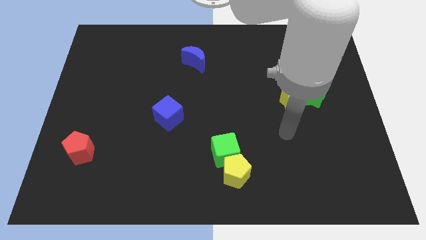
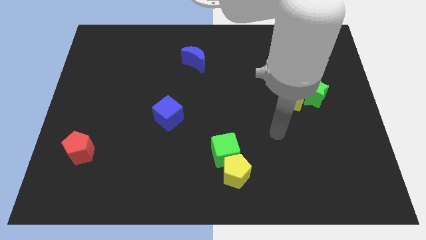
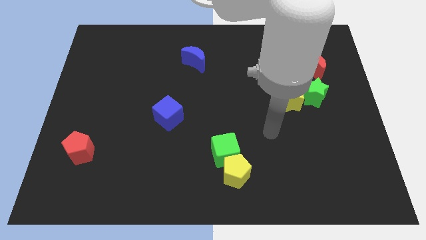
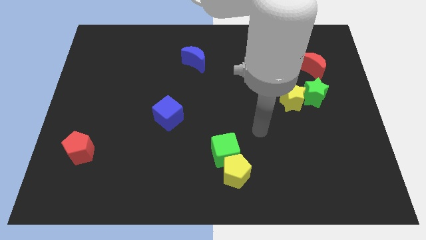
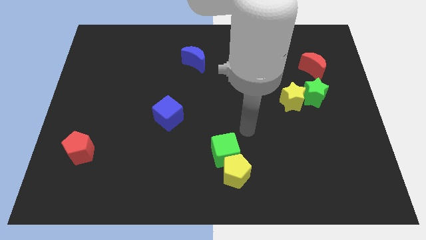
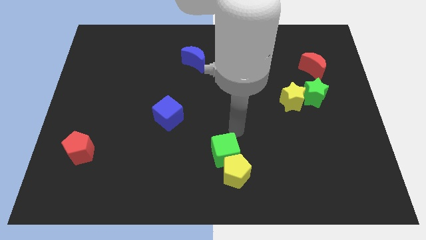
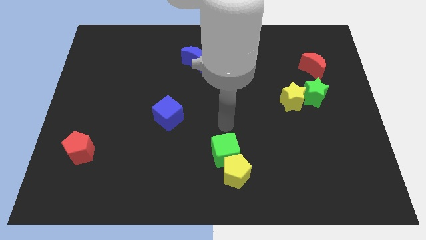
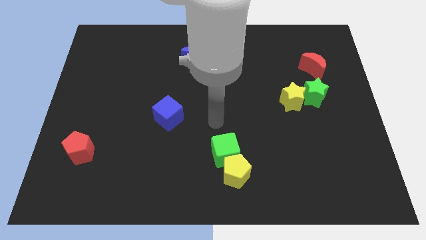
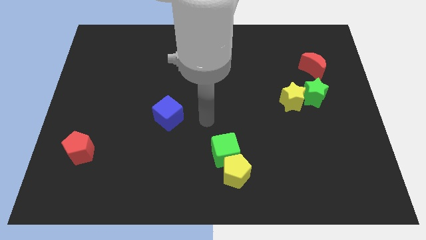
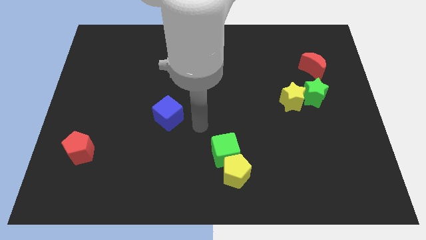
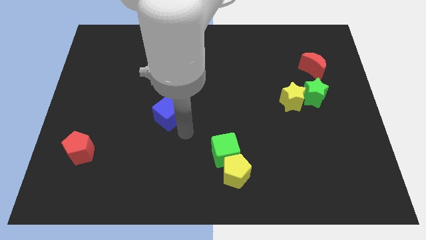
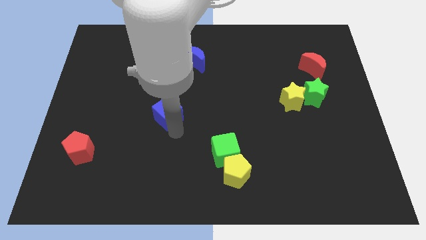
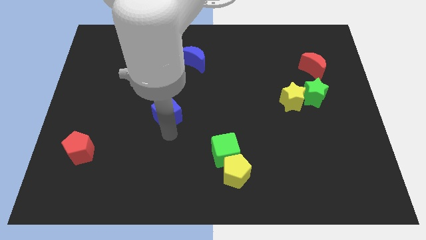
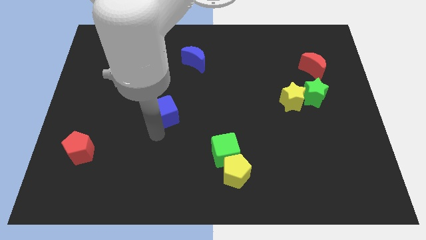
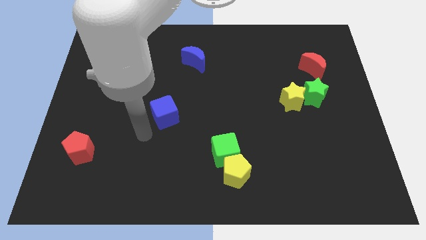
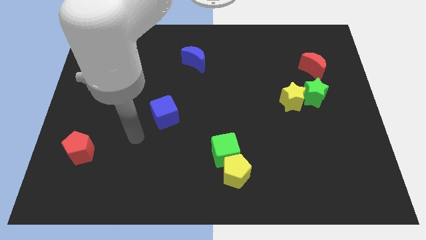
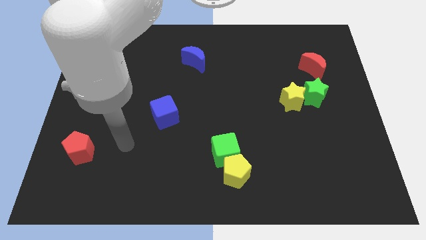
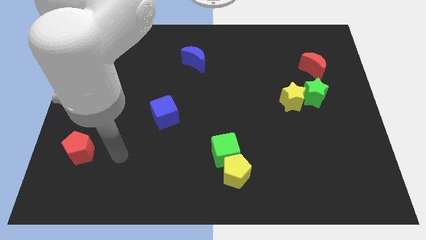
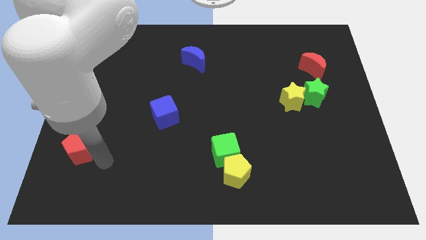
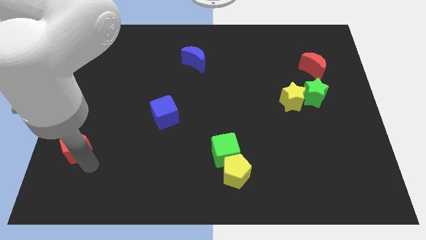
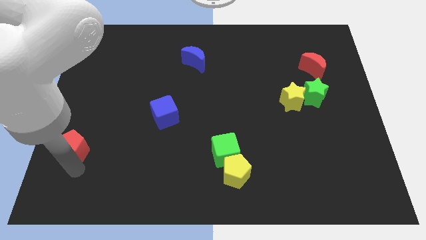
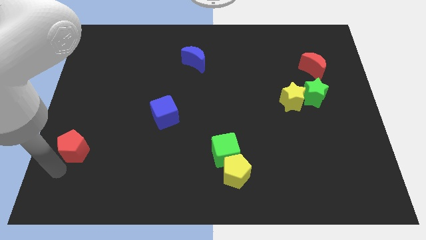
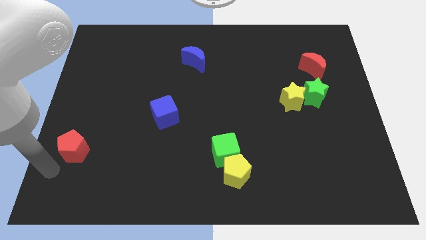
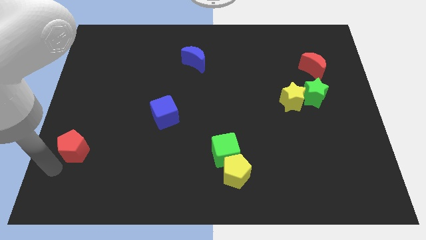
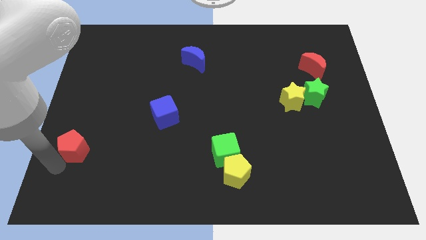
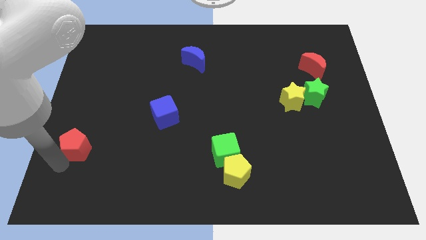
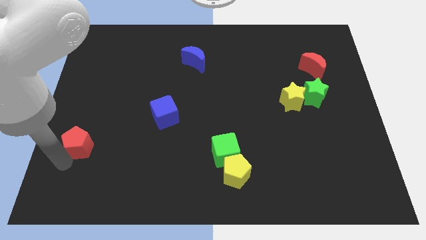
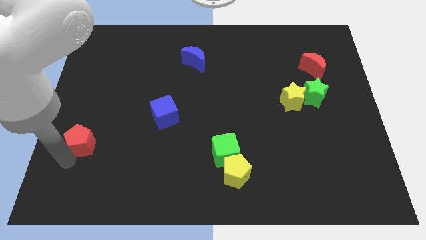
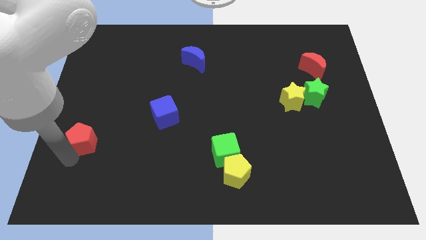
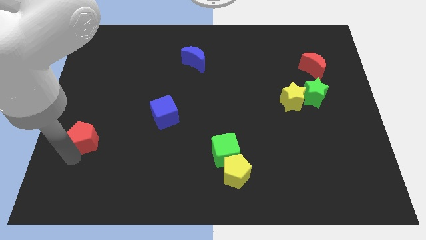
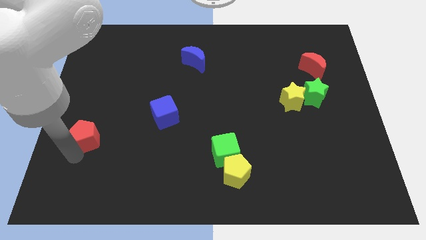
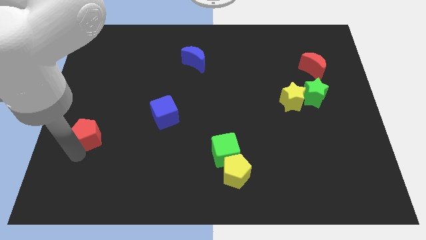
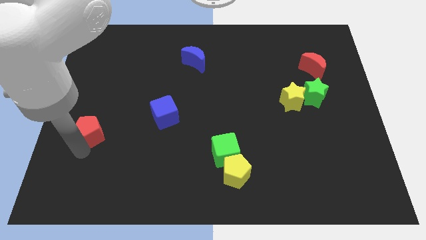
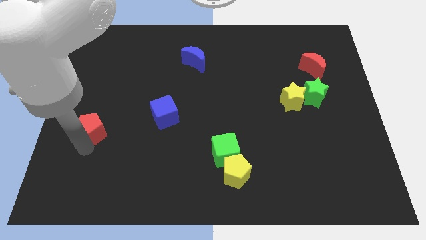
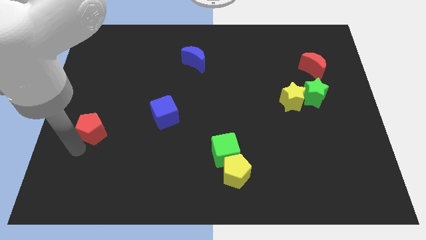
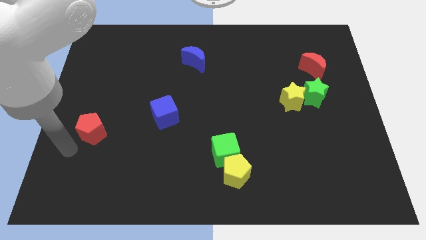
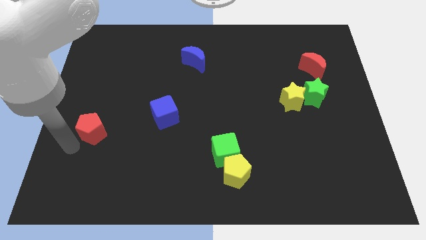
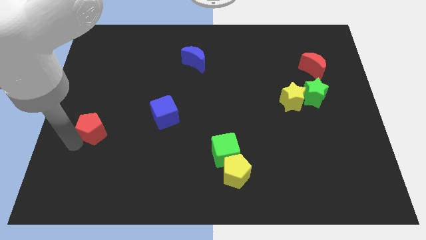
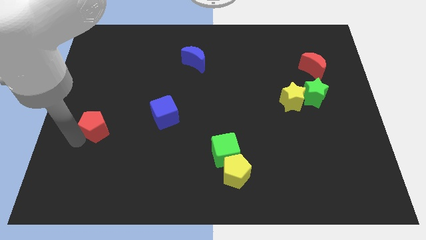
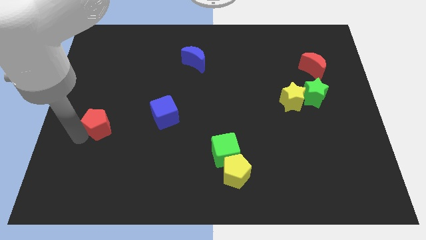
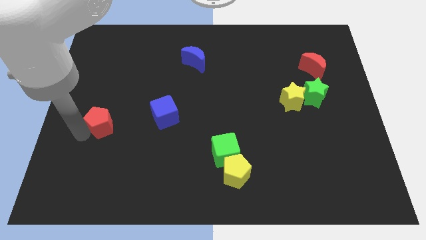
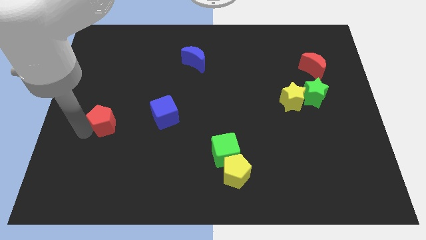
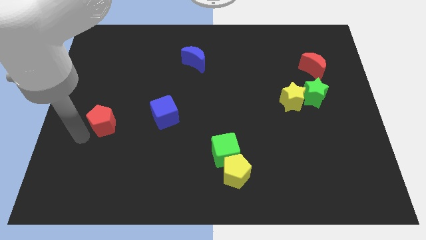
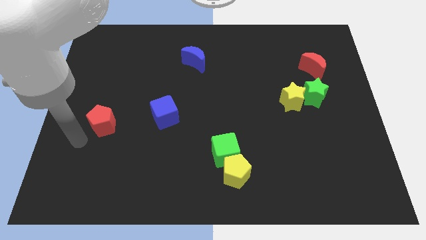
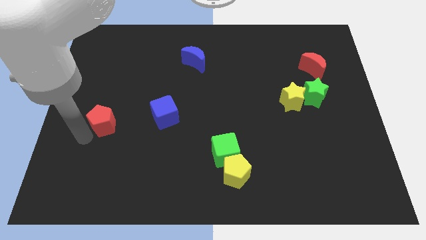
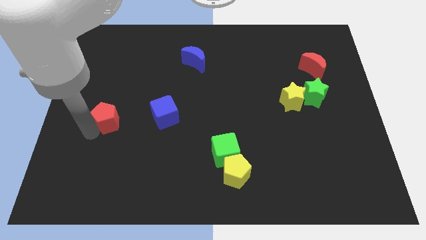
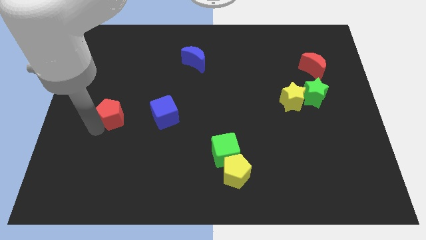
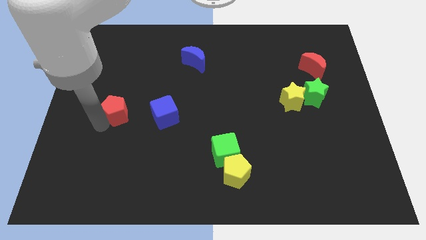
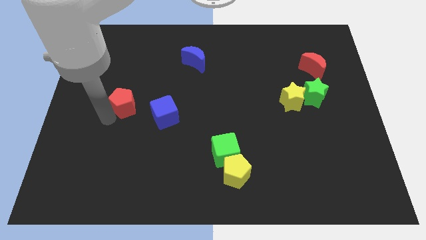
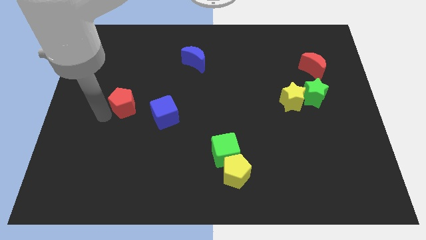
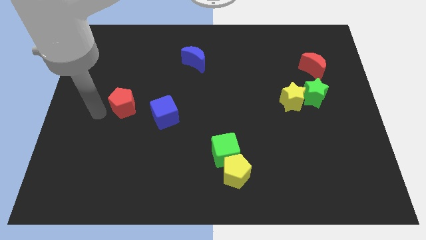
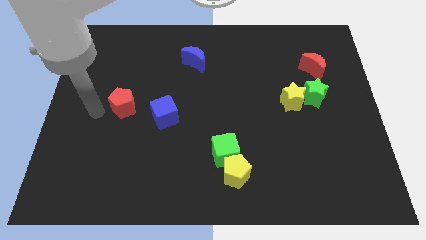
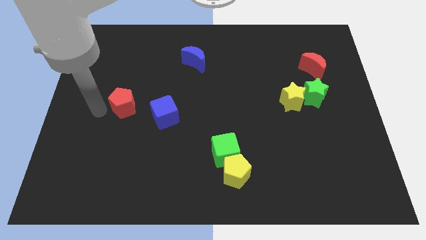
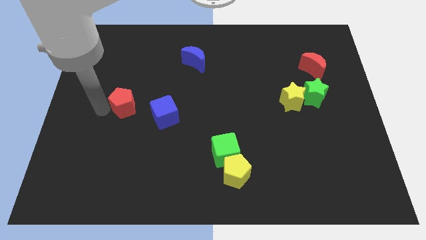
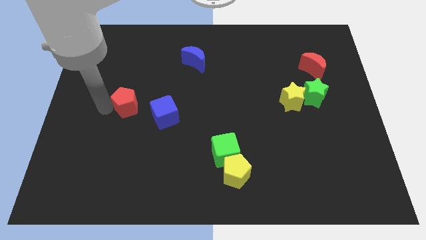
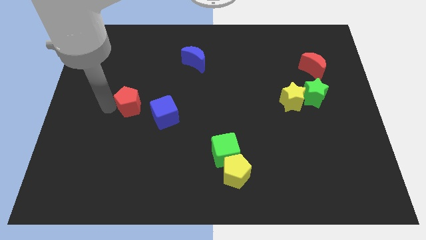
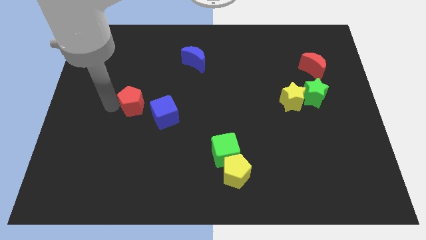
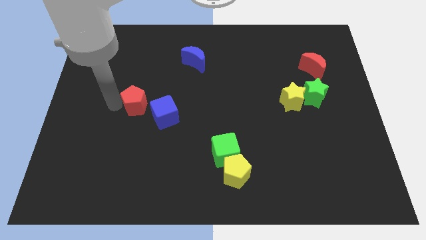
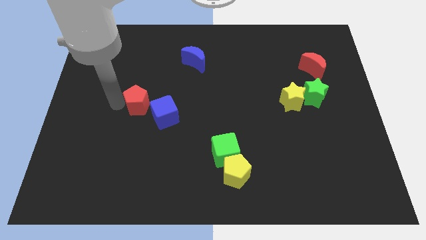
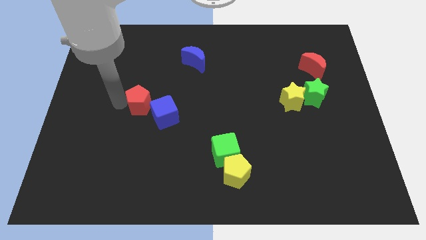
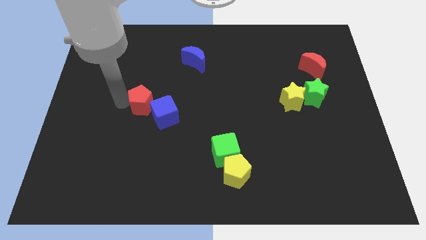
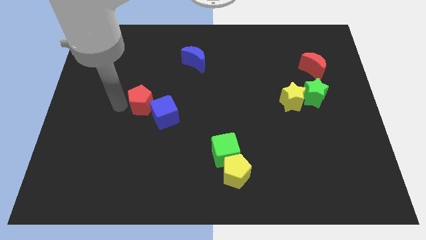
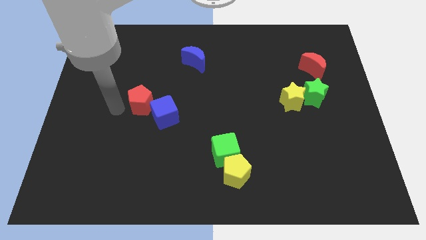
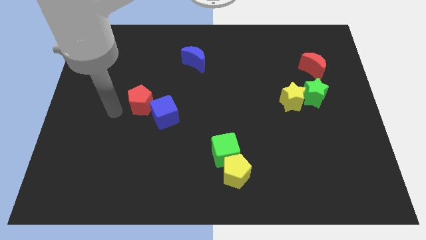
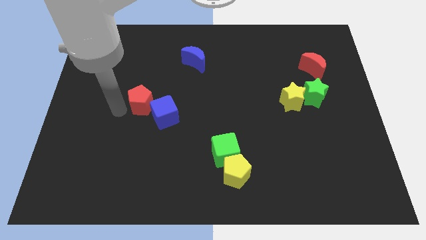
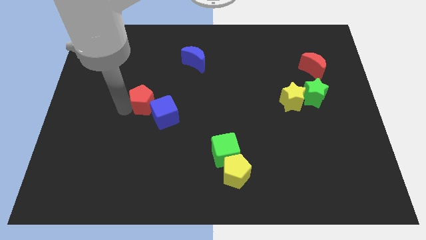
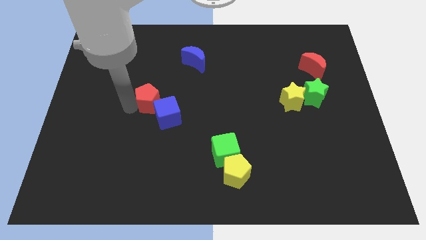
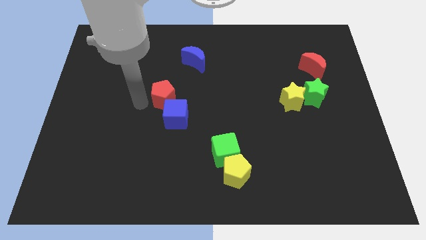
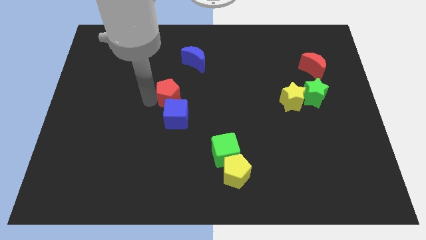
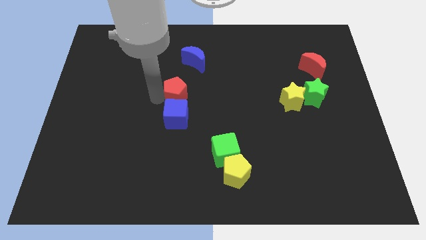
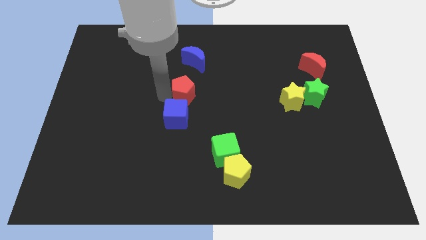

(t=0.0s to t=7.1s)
slide the red pentagon diagonally up and to the right of the blue cube
